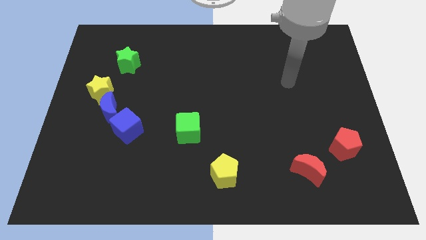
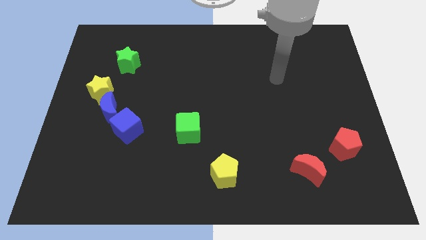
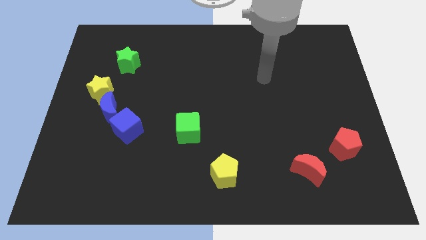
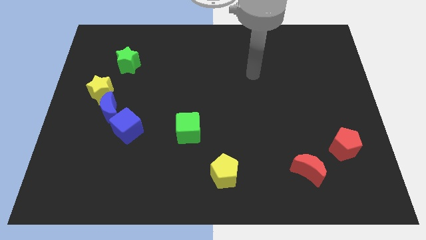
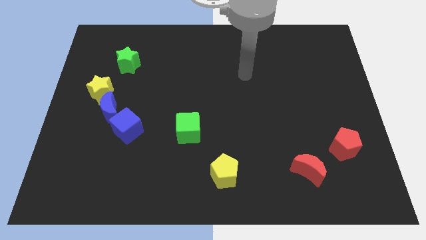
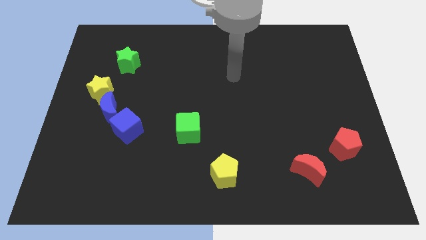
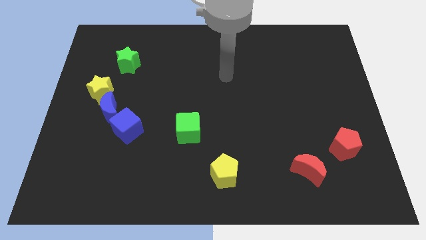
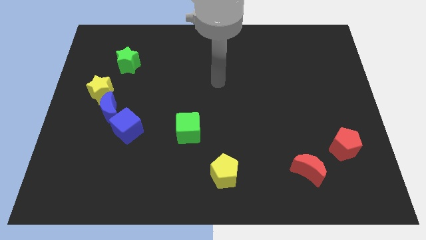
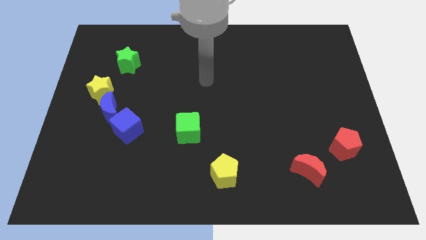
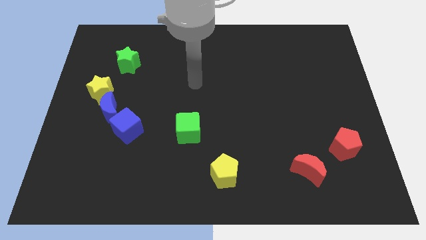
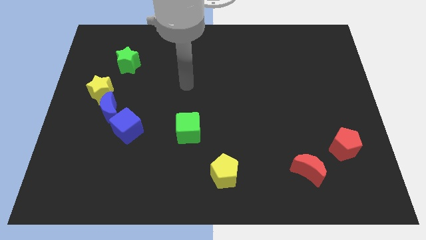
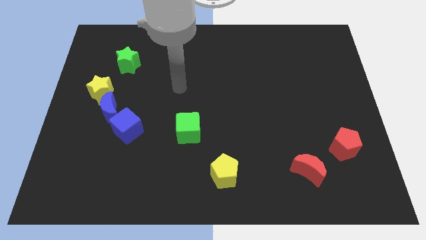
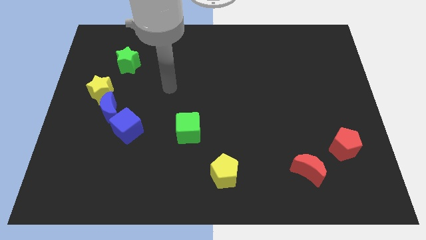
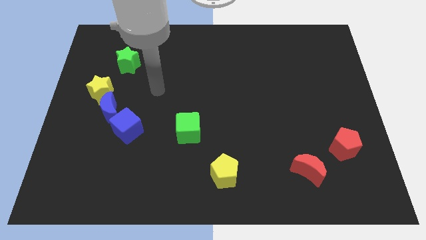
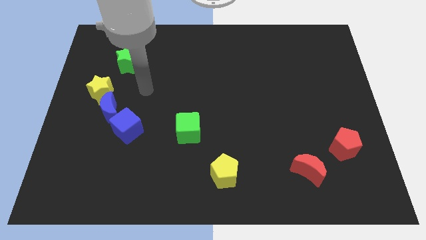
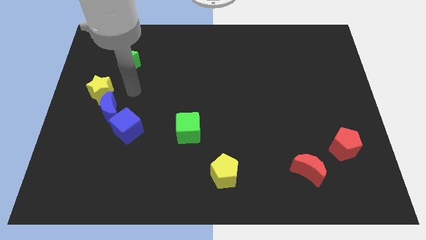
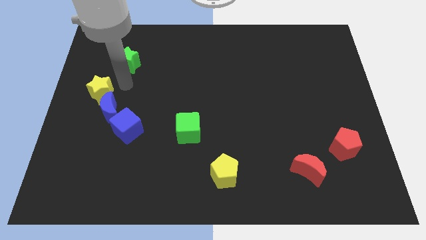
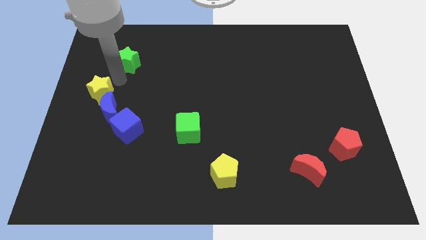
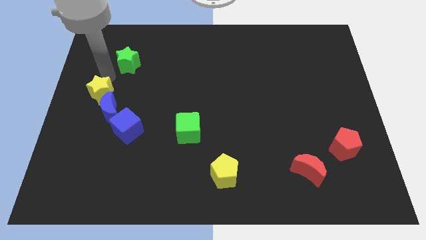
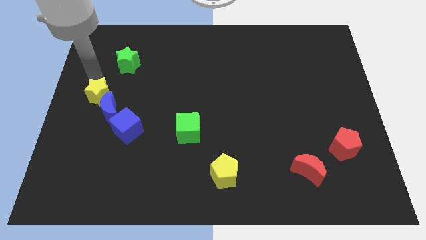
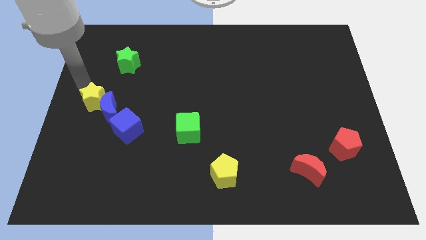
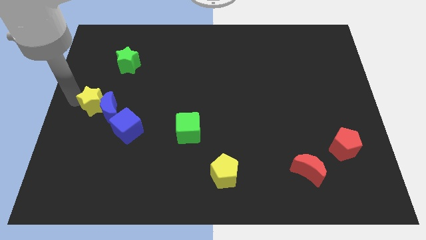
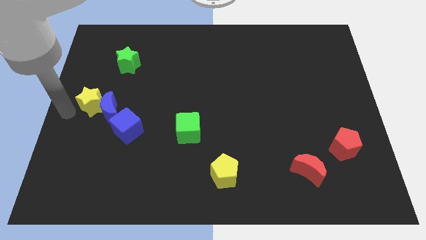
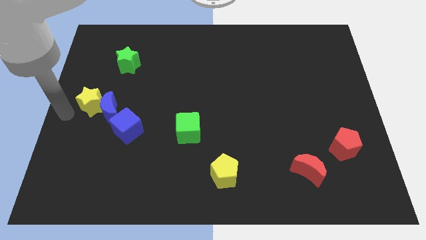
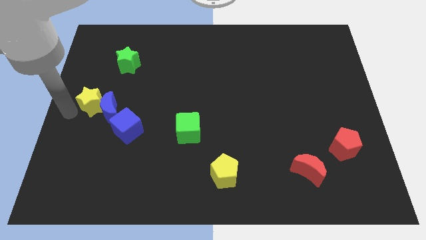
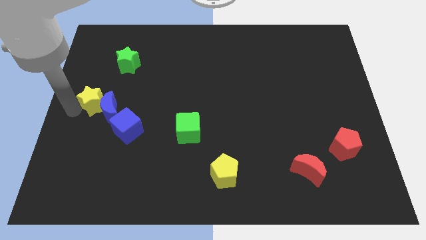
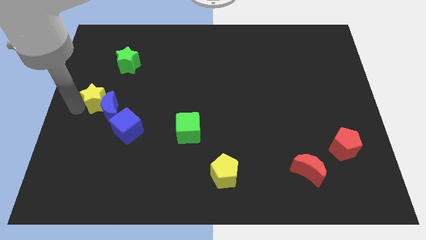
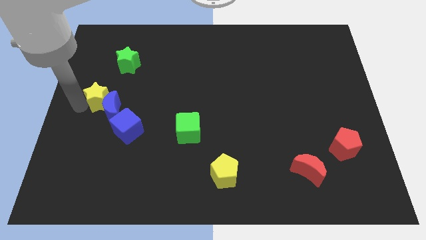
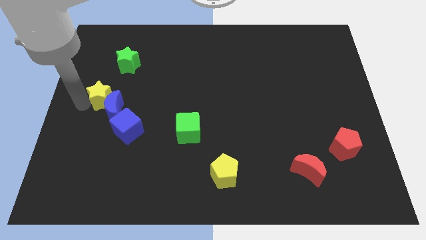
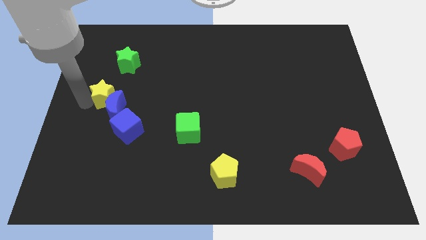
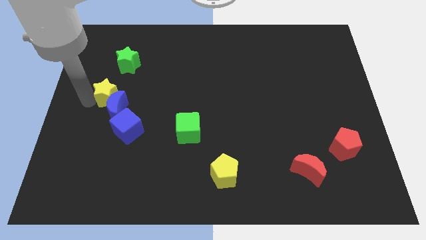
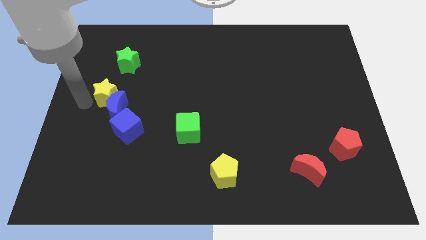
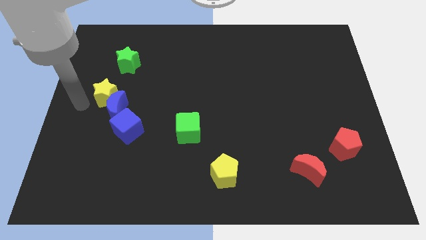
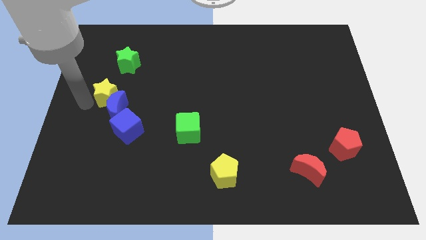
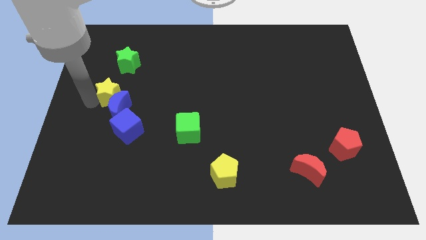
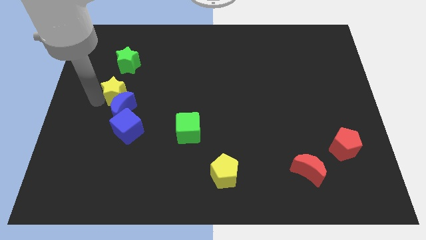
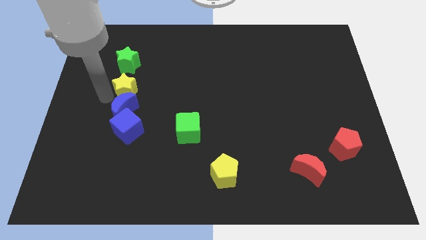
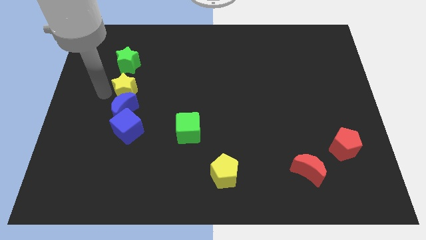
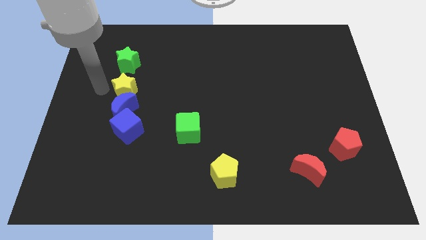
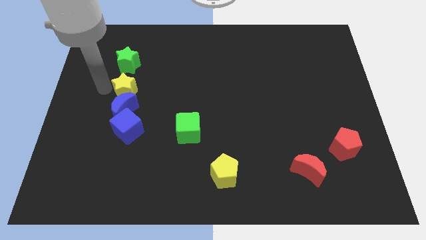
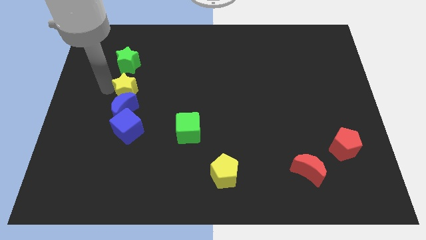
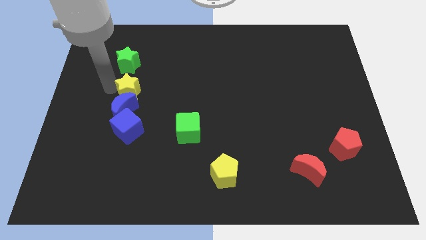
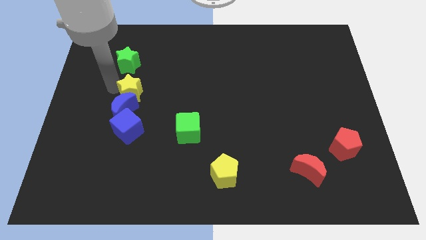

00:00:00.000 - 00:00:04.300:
slightly push the yellow star to the right

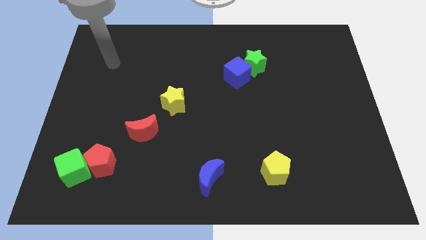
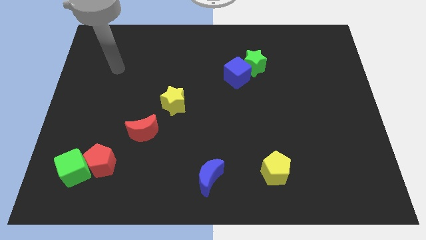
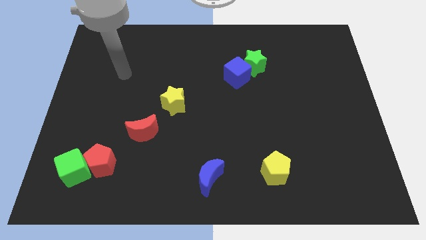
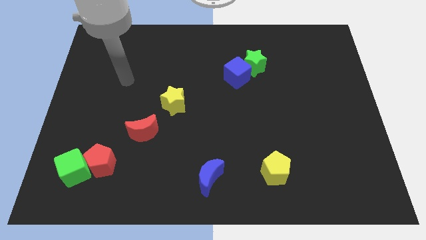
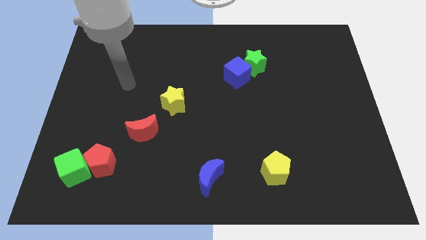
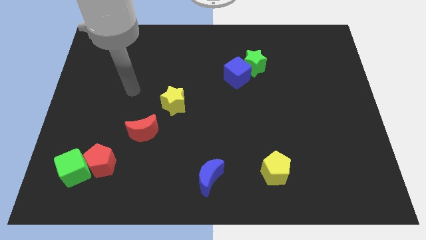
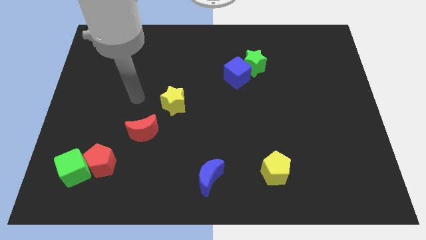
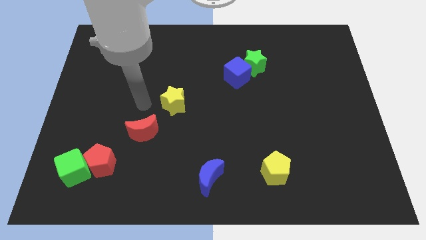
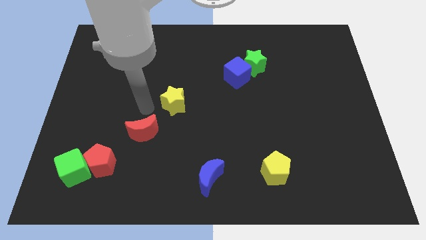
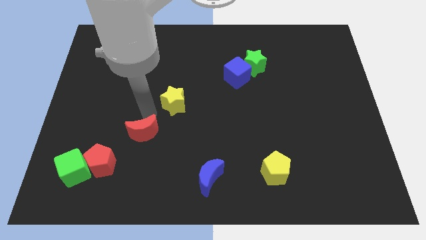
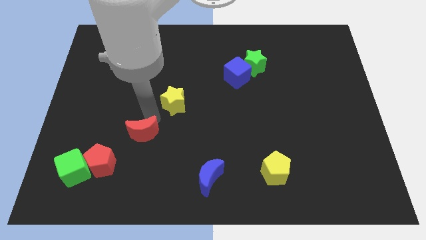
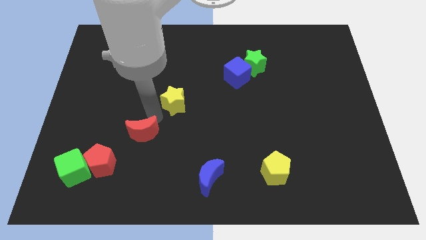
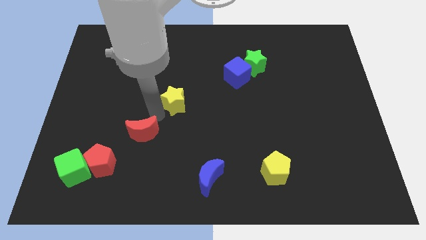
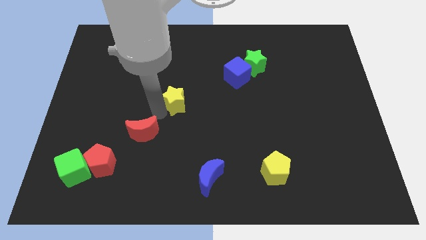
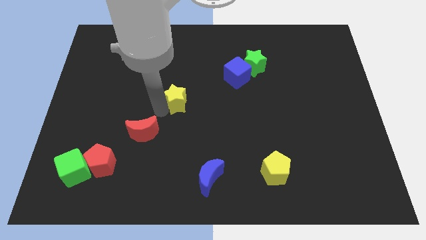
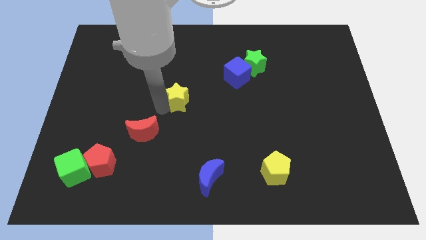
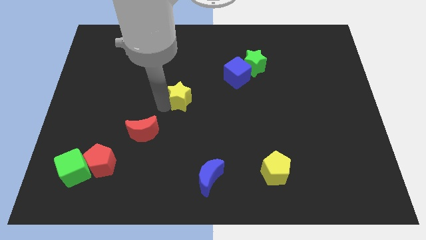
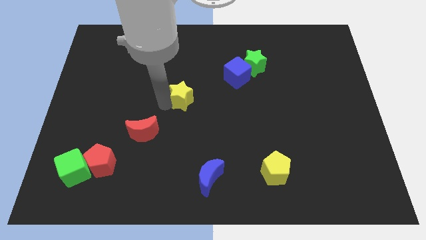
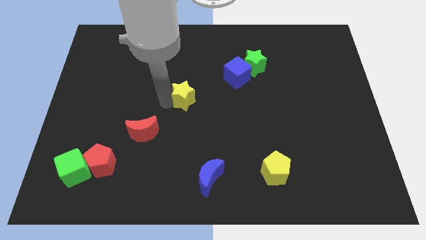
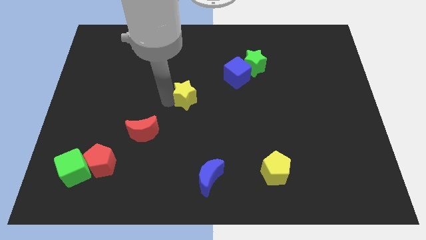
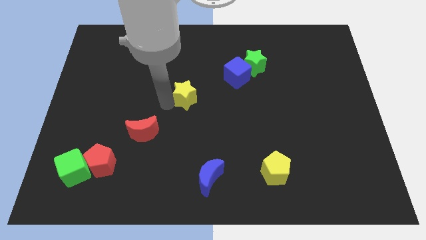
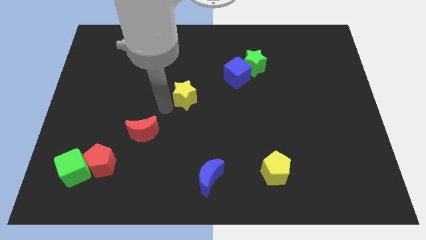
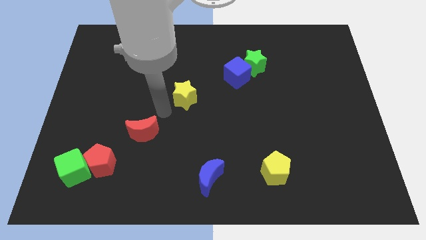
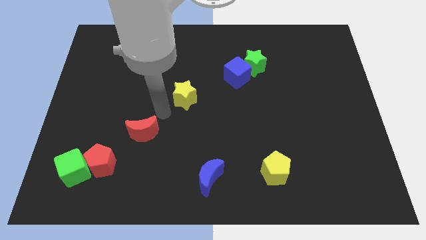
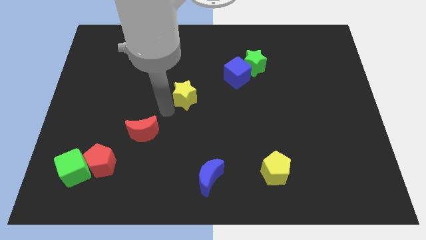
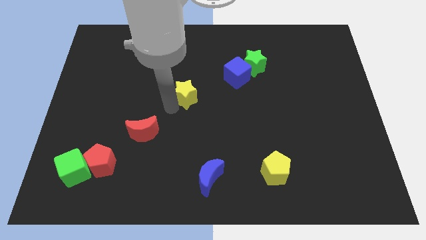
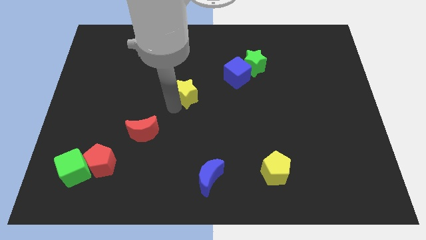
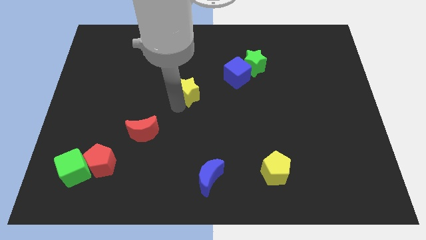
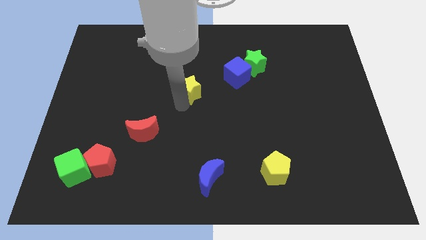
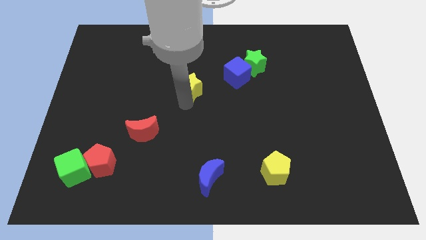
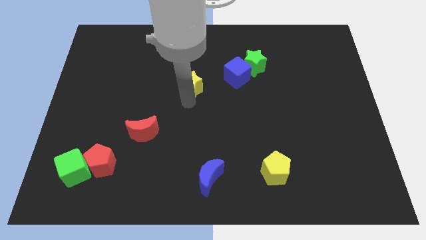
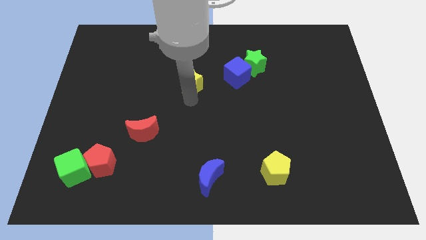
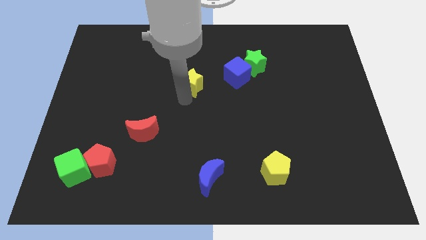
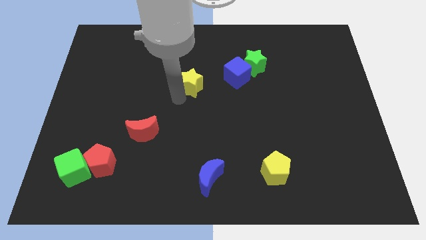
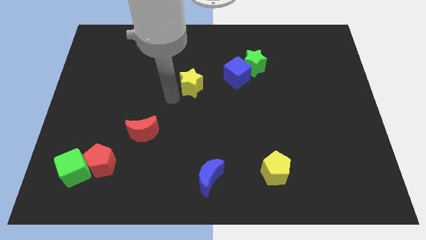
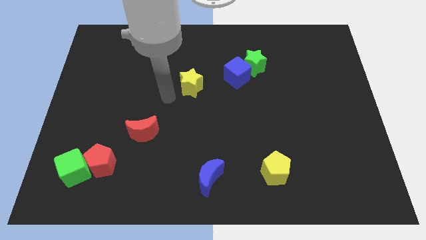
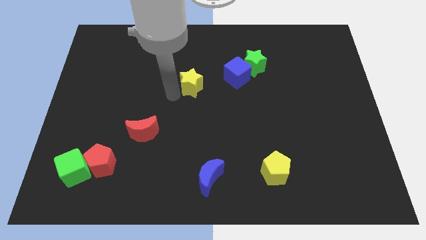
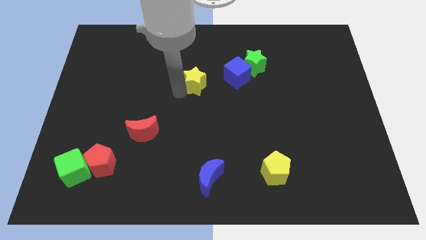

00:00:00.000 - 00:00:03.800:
slightly slide the yellow star upwards and to the right
